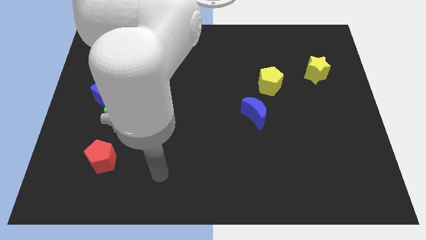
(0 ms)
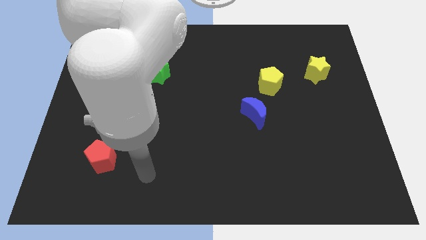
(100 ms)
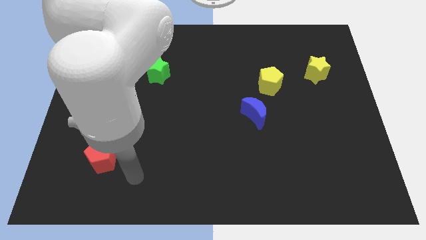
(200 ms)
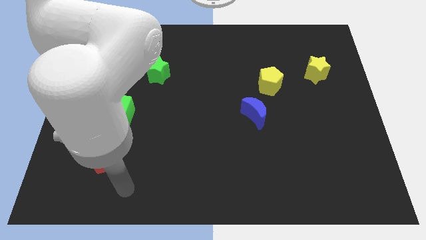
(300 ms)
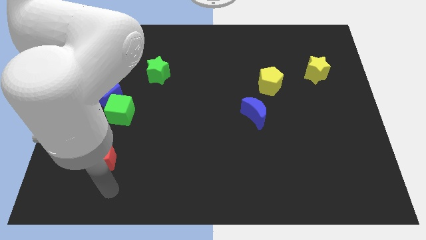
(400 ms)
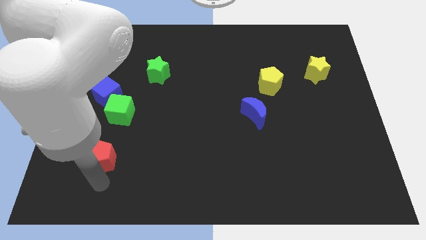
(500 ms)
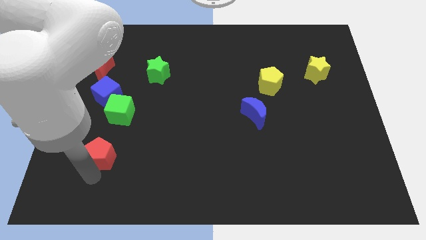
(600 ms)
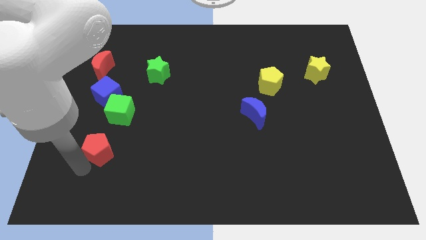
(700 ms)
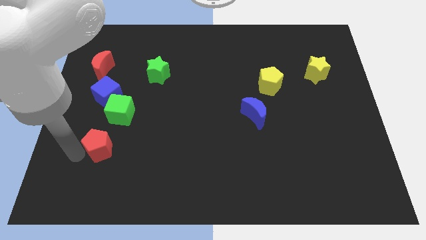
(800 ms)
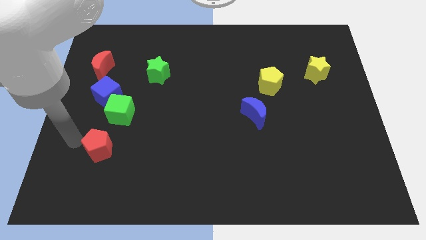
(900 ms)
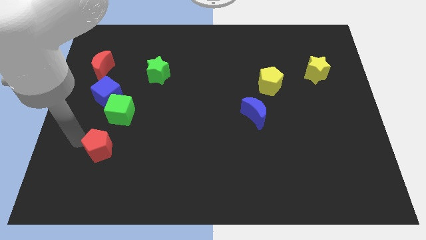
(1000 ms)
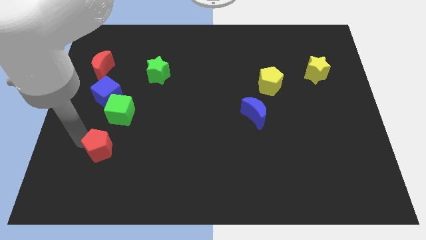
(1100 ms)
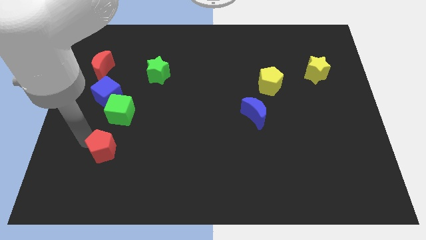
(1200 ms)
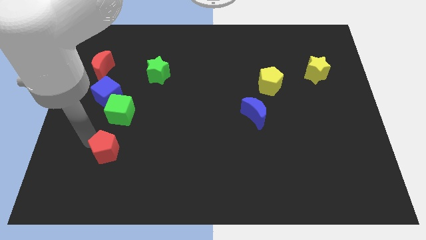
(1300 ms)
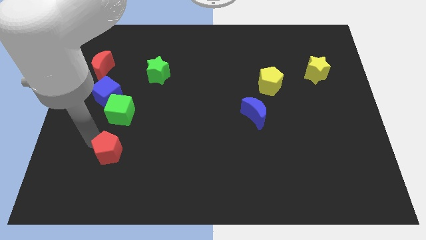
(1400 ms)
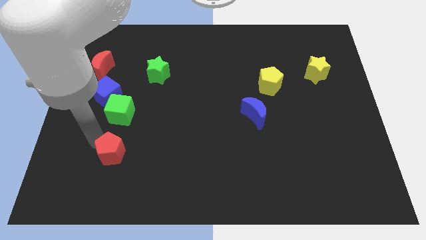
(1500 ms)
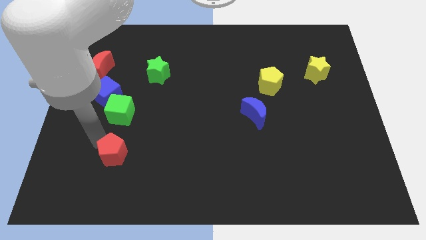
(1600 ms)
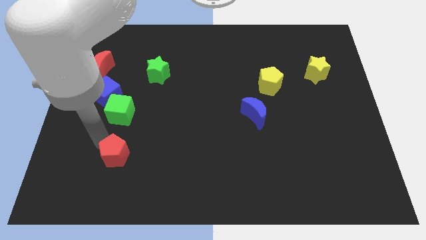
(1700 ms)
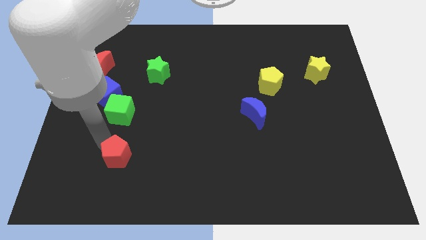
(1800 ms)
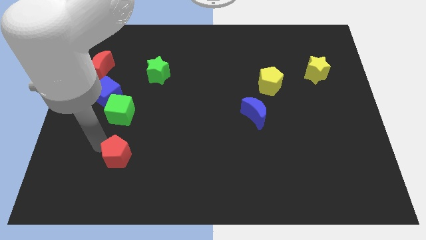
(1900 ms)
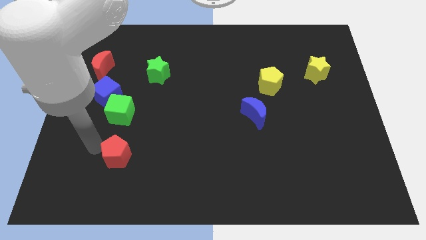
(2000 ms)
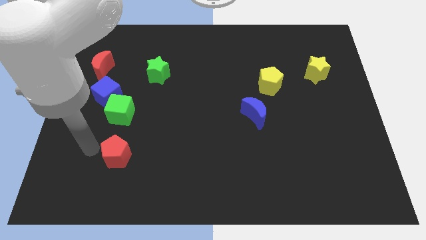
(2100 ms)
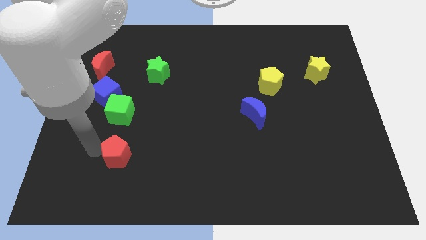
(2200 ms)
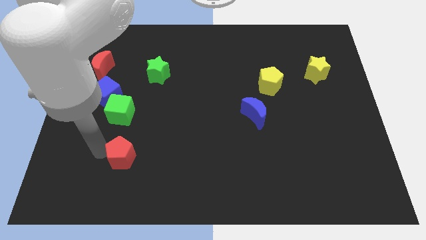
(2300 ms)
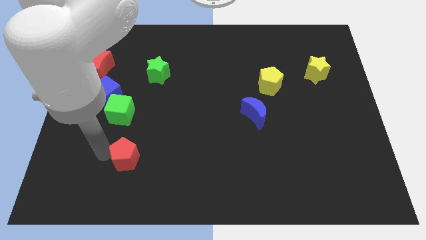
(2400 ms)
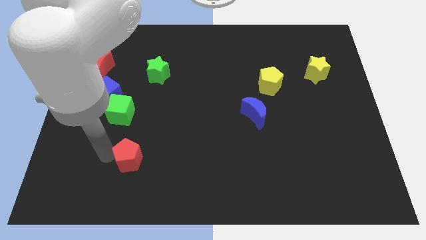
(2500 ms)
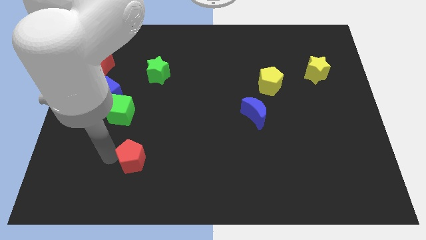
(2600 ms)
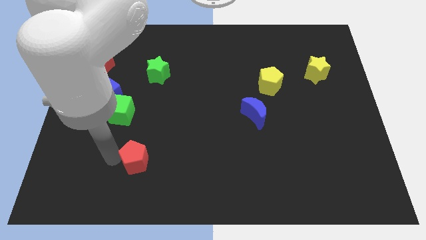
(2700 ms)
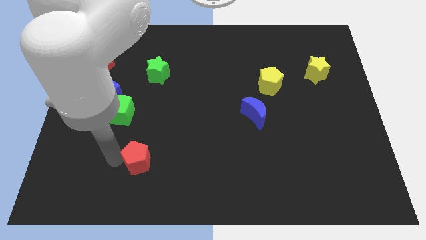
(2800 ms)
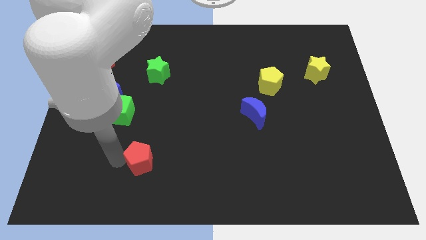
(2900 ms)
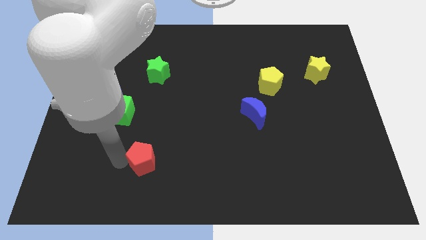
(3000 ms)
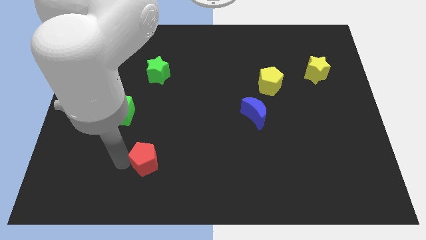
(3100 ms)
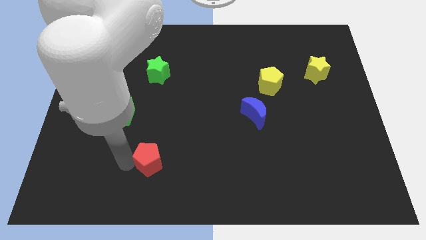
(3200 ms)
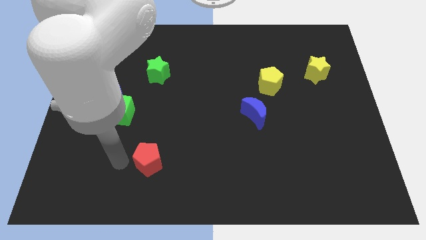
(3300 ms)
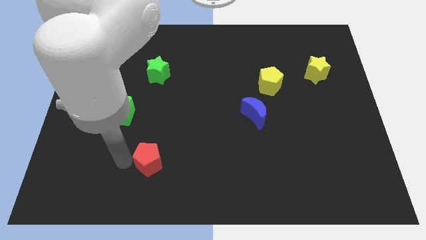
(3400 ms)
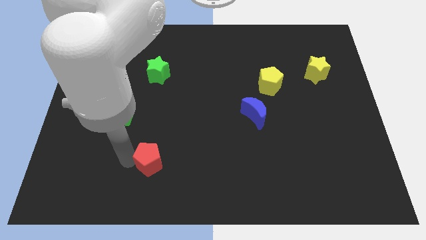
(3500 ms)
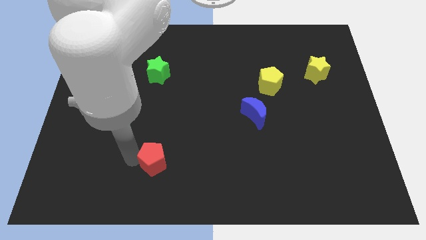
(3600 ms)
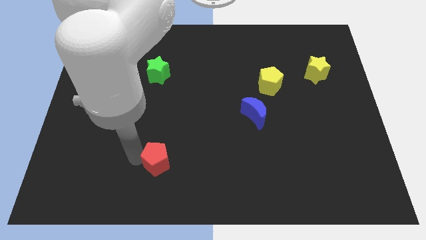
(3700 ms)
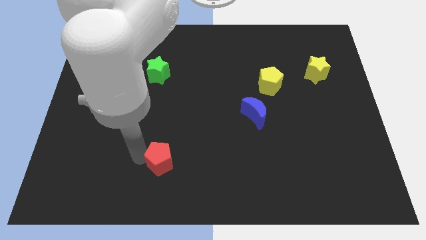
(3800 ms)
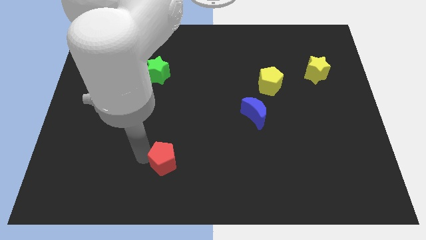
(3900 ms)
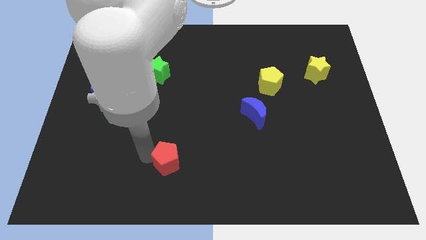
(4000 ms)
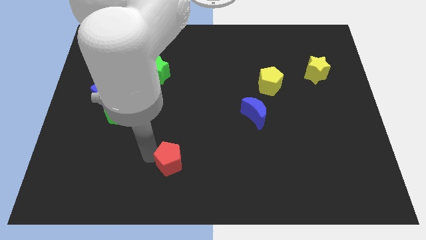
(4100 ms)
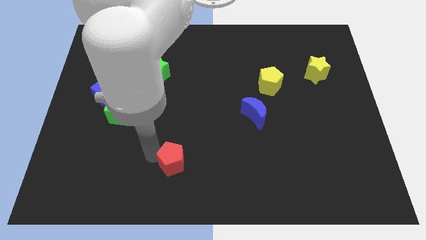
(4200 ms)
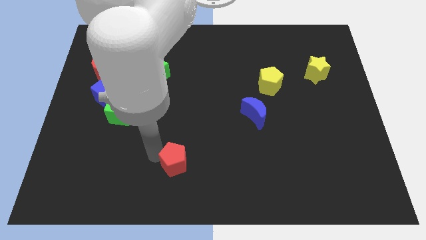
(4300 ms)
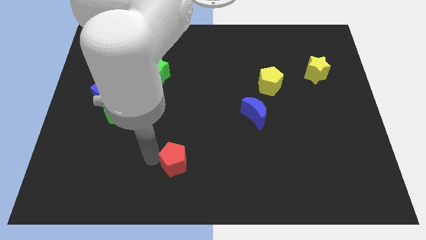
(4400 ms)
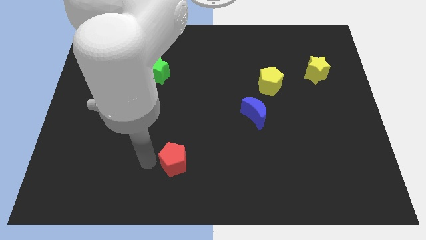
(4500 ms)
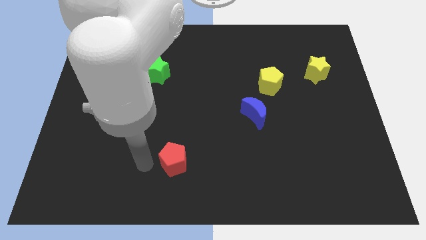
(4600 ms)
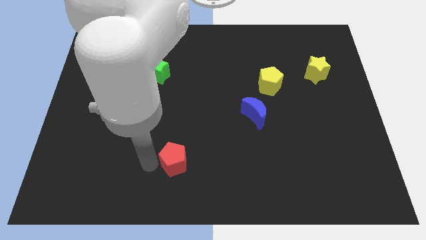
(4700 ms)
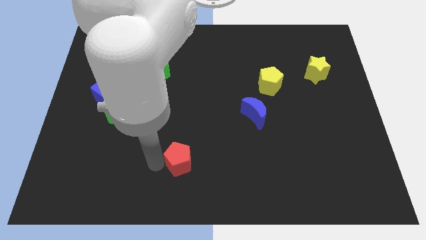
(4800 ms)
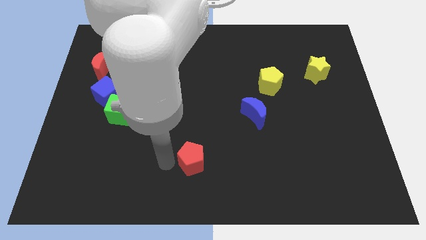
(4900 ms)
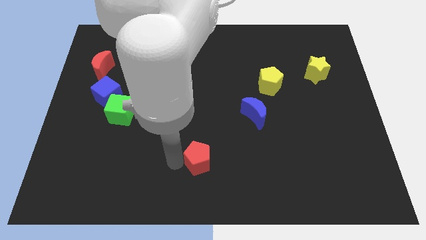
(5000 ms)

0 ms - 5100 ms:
push the red pentagon to the right

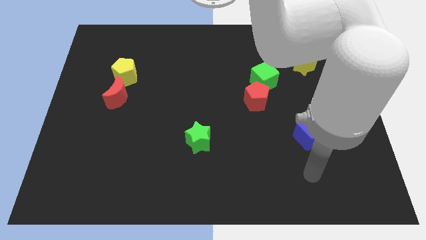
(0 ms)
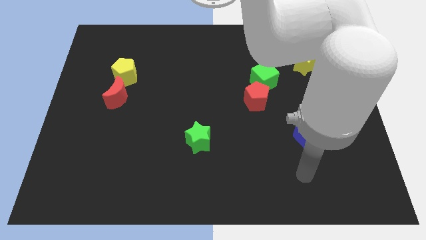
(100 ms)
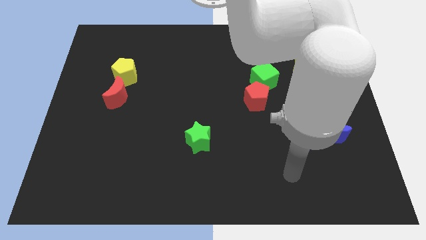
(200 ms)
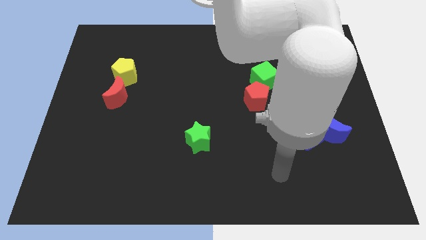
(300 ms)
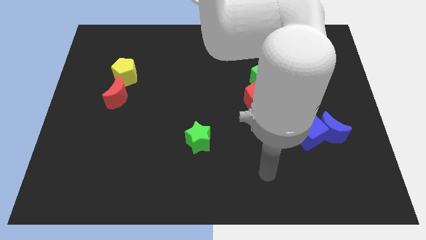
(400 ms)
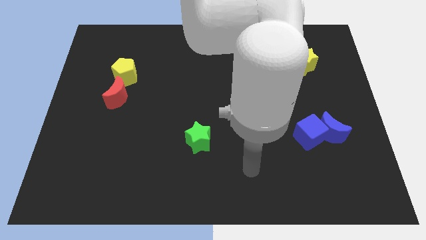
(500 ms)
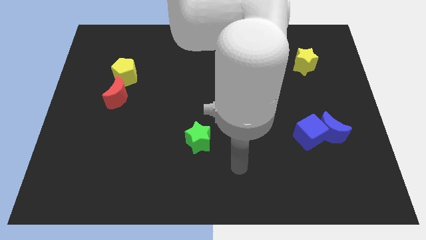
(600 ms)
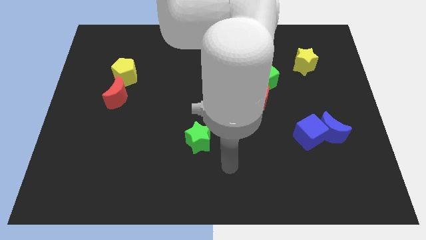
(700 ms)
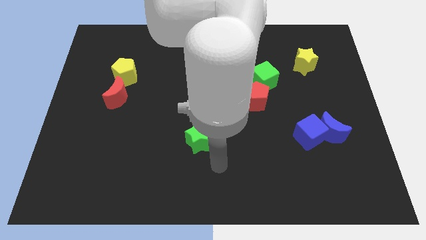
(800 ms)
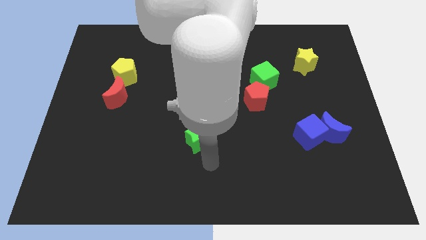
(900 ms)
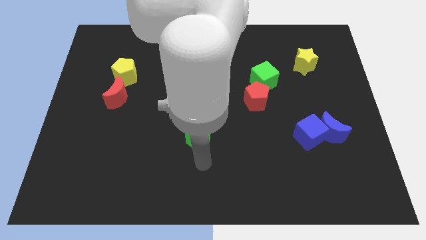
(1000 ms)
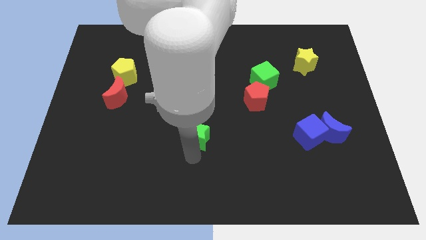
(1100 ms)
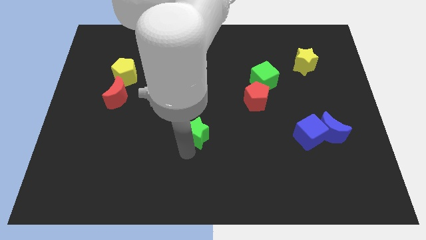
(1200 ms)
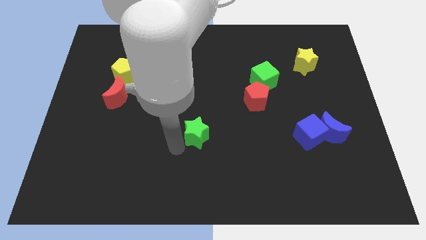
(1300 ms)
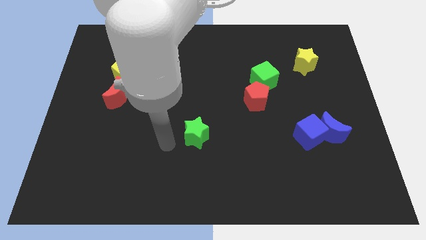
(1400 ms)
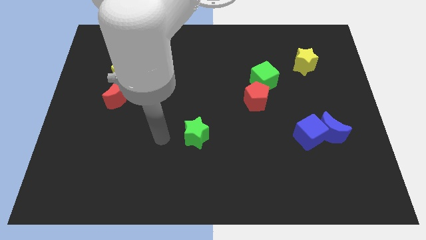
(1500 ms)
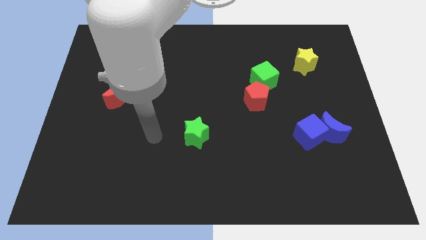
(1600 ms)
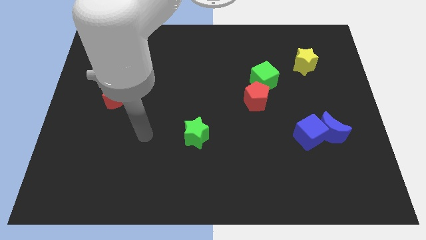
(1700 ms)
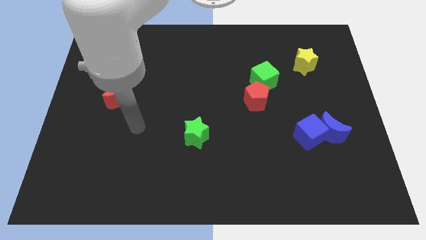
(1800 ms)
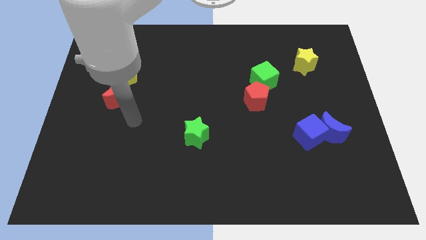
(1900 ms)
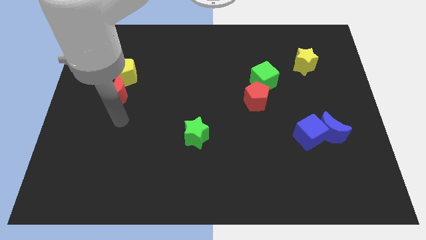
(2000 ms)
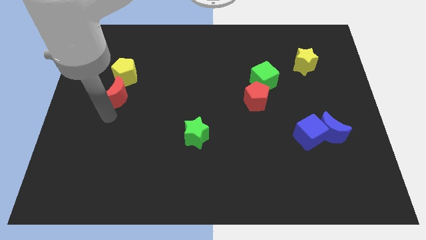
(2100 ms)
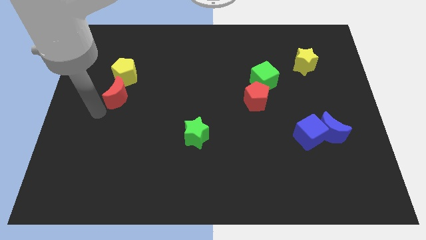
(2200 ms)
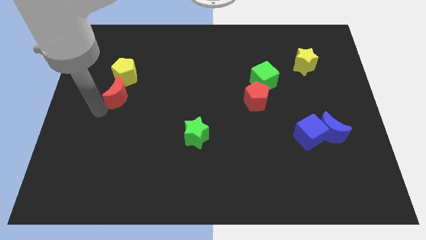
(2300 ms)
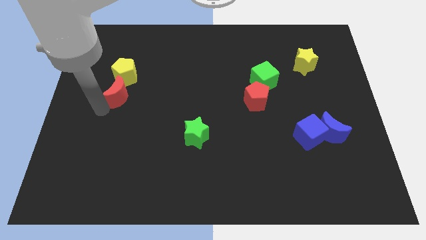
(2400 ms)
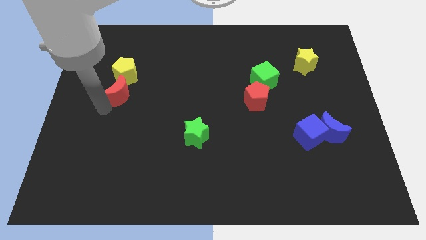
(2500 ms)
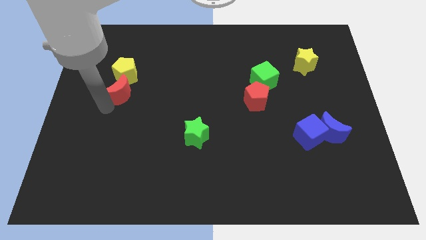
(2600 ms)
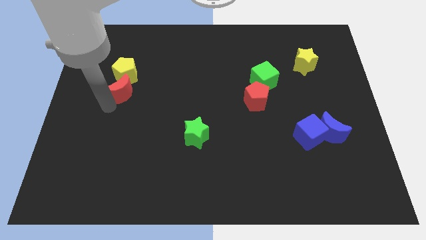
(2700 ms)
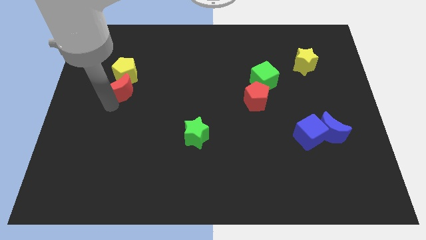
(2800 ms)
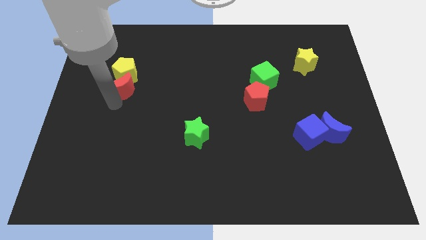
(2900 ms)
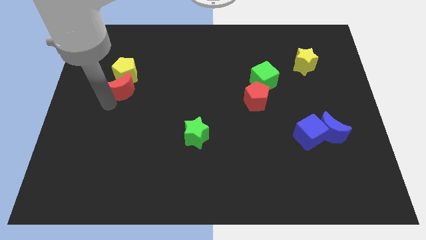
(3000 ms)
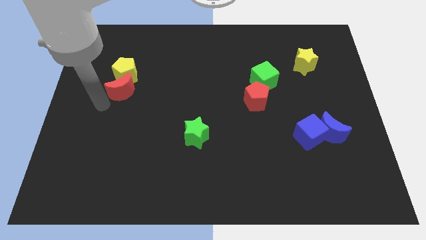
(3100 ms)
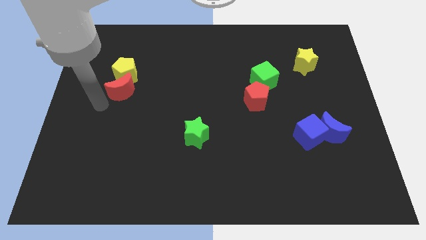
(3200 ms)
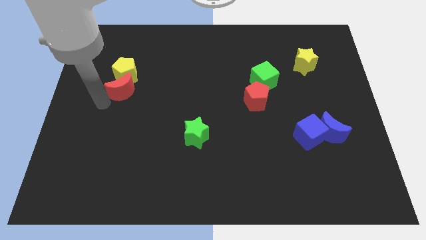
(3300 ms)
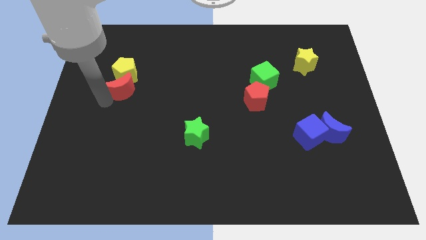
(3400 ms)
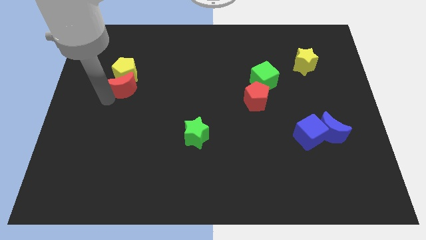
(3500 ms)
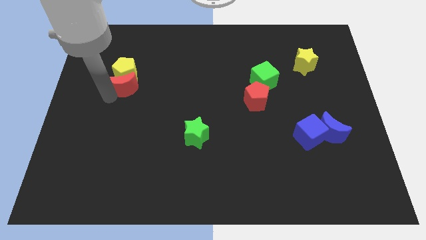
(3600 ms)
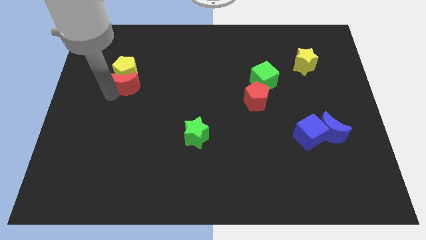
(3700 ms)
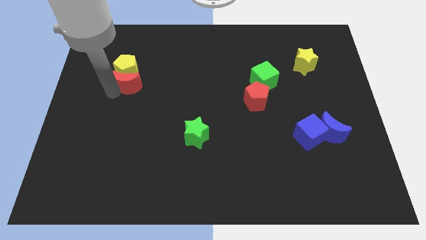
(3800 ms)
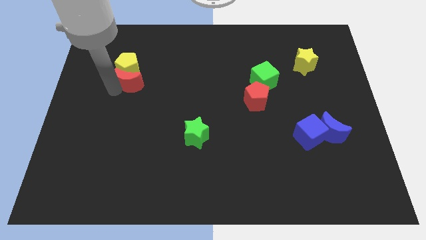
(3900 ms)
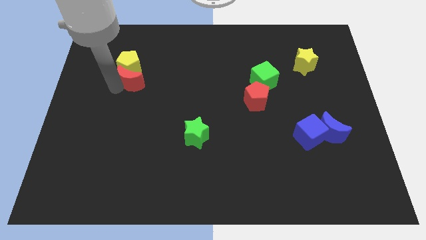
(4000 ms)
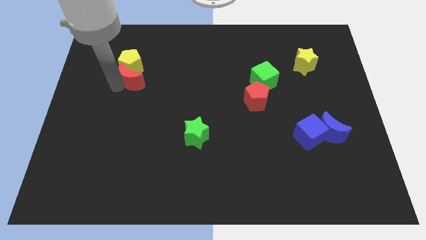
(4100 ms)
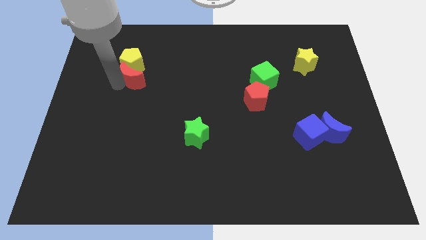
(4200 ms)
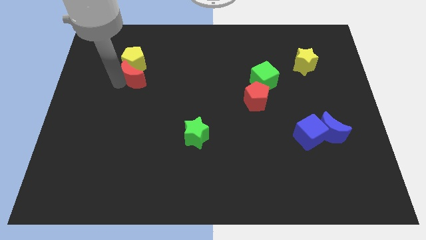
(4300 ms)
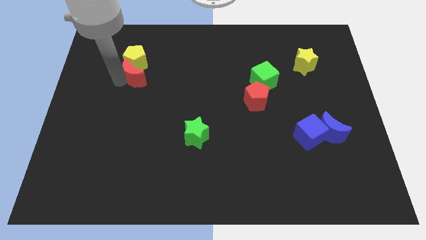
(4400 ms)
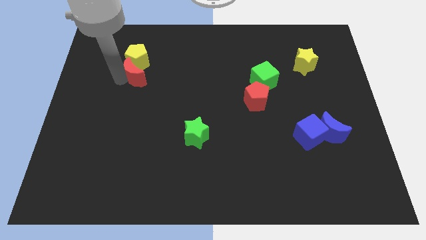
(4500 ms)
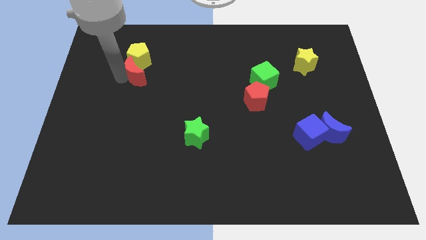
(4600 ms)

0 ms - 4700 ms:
move the red moon diagonally up and right a little
